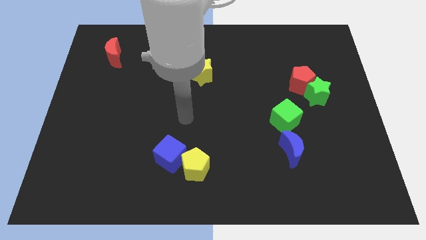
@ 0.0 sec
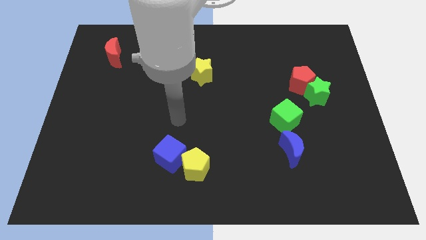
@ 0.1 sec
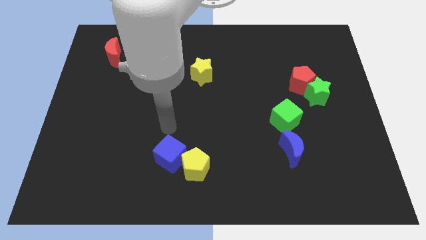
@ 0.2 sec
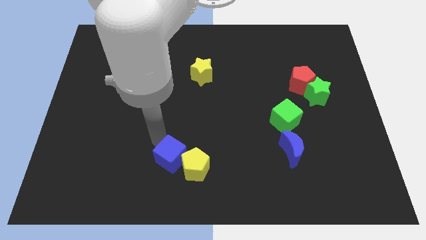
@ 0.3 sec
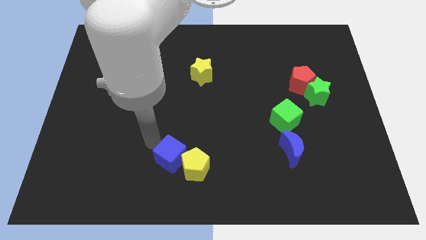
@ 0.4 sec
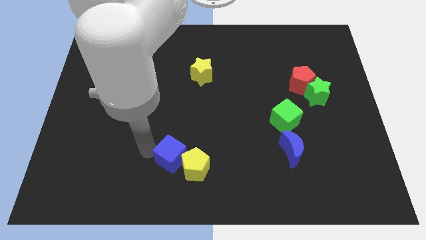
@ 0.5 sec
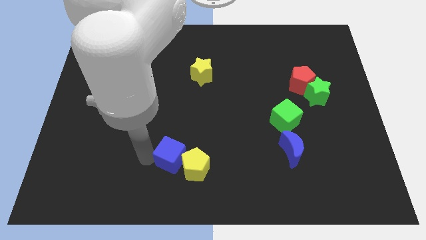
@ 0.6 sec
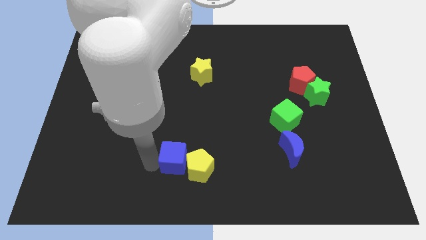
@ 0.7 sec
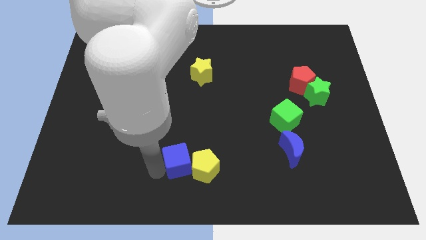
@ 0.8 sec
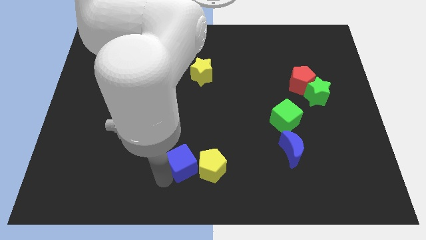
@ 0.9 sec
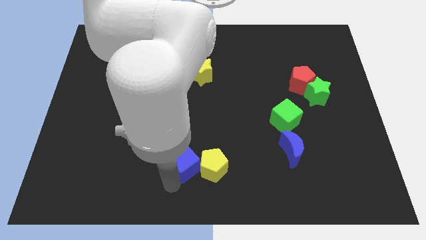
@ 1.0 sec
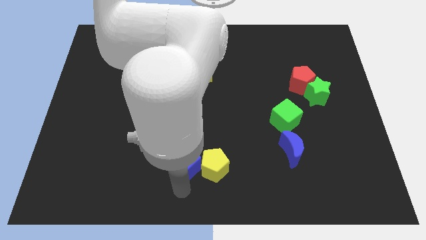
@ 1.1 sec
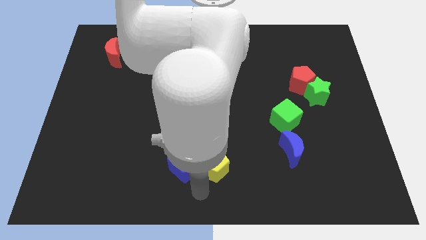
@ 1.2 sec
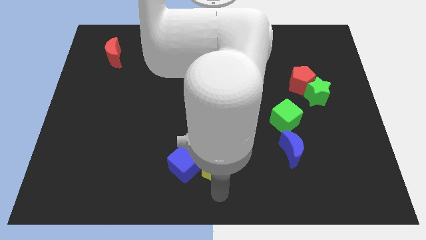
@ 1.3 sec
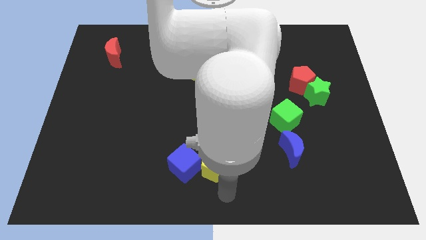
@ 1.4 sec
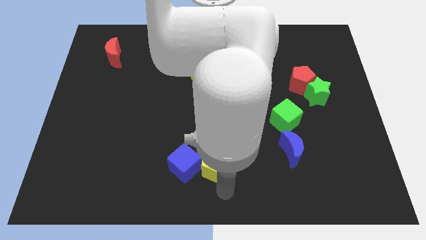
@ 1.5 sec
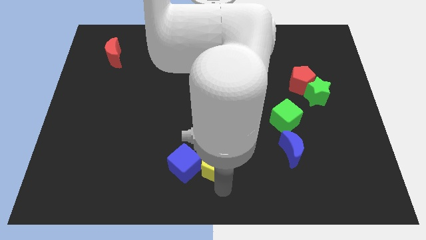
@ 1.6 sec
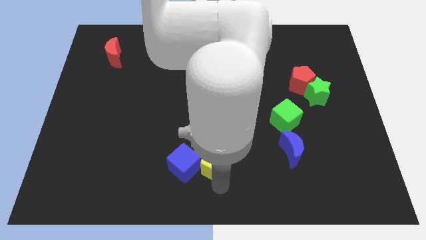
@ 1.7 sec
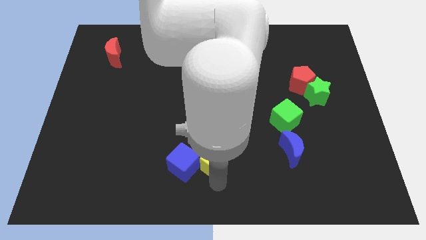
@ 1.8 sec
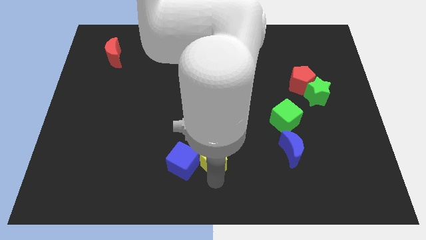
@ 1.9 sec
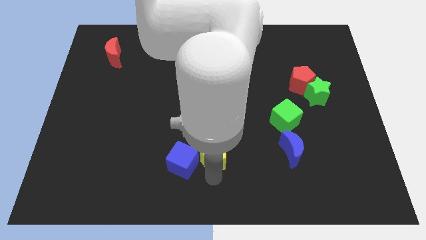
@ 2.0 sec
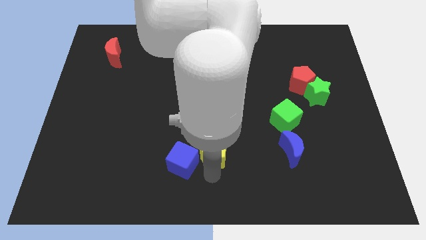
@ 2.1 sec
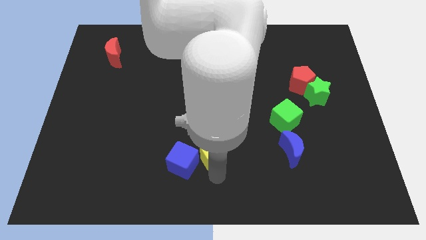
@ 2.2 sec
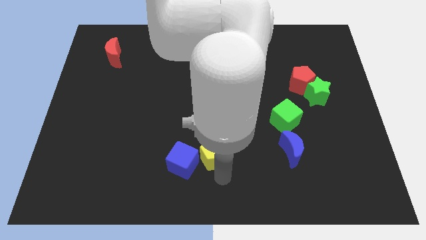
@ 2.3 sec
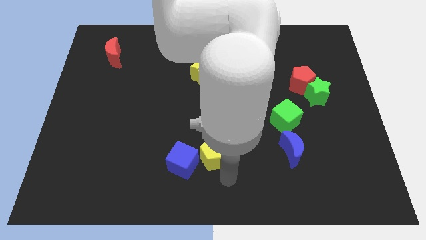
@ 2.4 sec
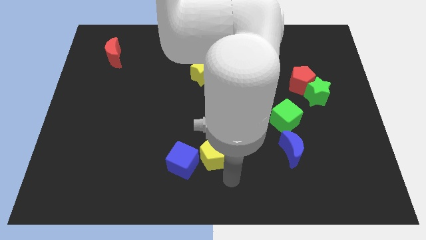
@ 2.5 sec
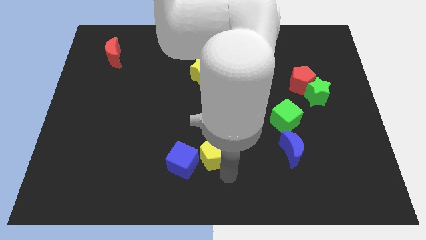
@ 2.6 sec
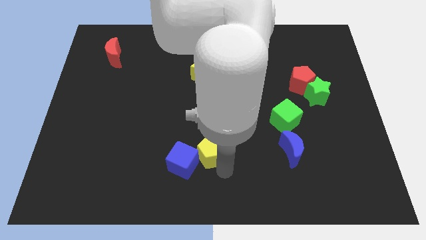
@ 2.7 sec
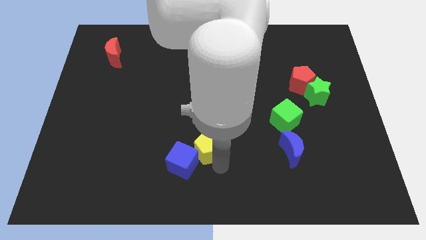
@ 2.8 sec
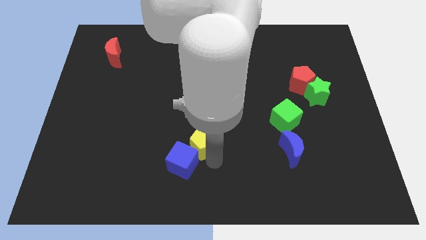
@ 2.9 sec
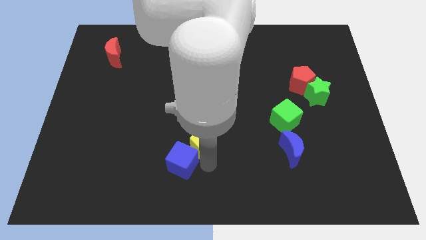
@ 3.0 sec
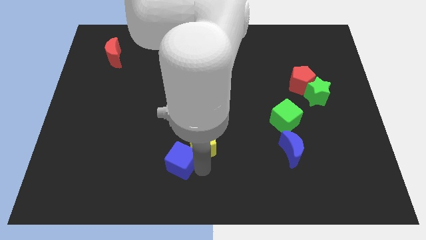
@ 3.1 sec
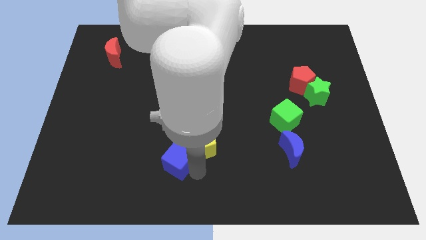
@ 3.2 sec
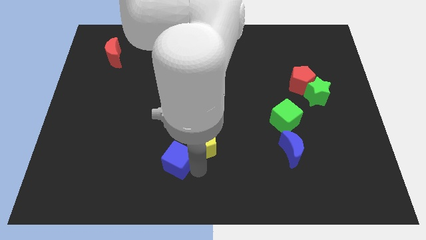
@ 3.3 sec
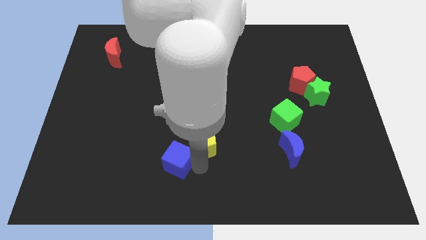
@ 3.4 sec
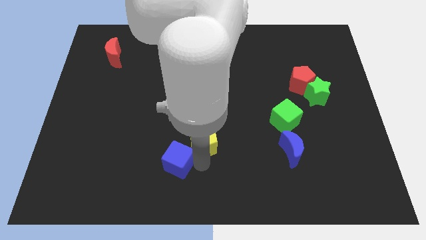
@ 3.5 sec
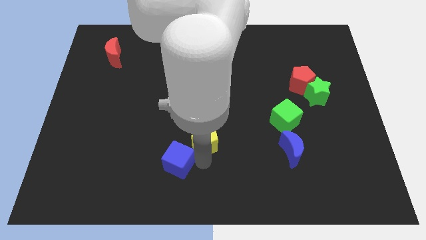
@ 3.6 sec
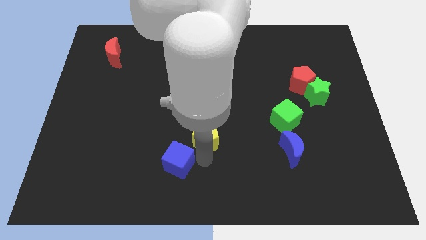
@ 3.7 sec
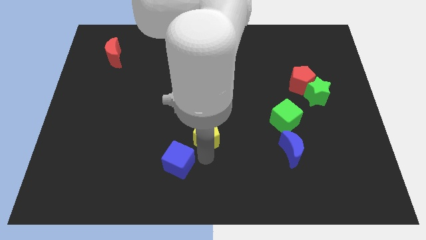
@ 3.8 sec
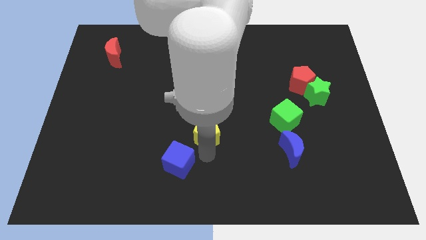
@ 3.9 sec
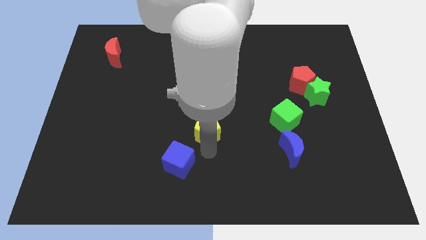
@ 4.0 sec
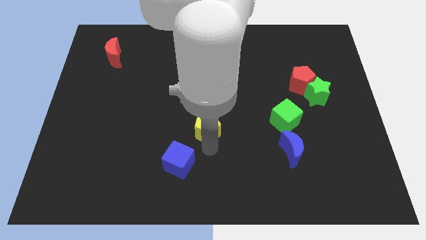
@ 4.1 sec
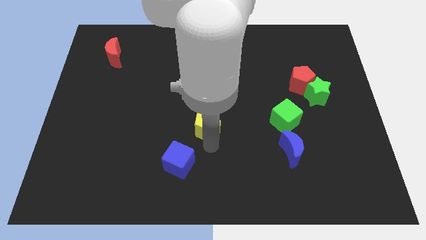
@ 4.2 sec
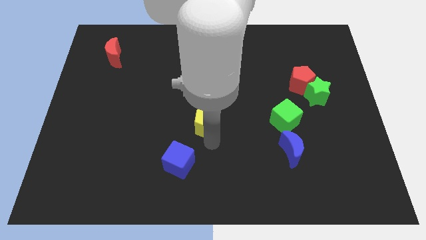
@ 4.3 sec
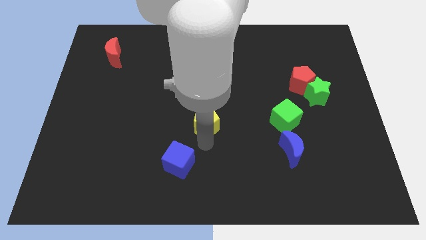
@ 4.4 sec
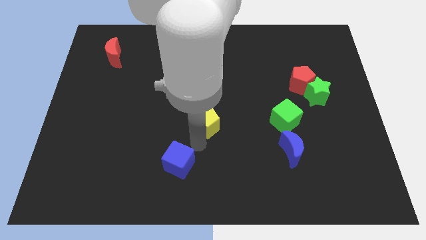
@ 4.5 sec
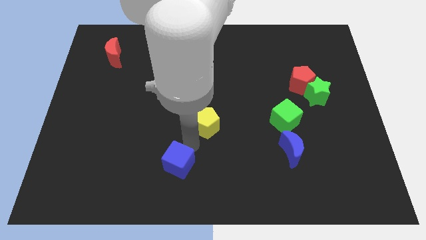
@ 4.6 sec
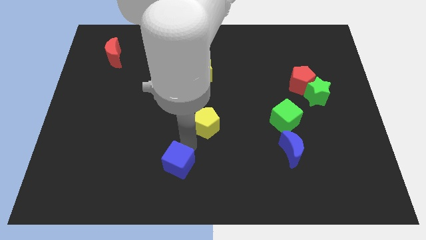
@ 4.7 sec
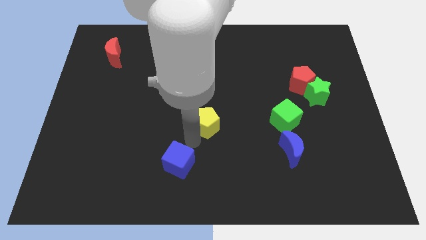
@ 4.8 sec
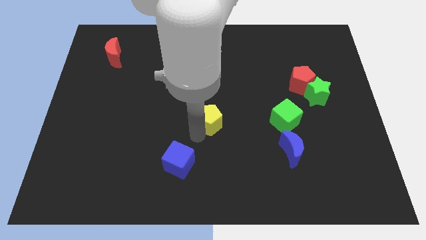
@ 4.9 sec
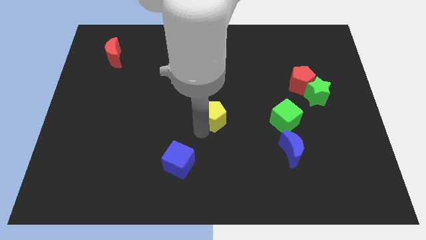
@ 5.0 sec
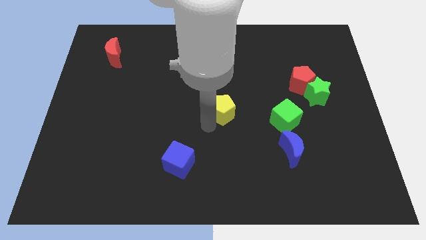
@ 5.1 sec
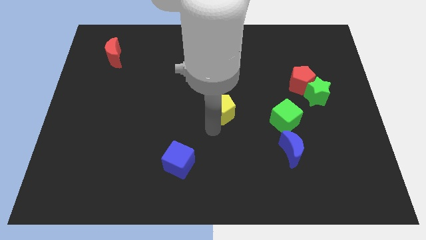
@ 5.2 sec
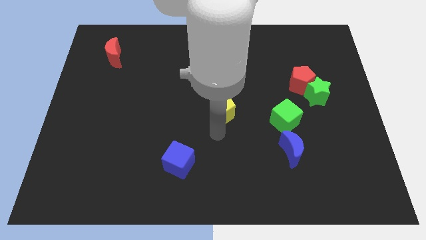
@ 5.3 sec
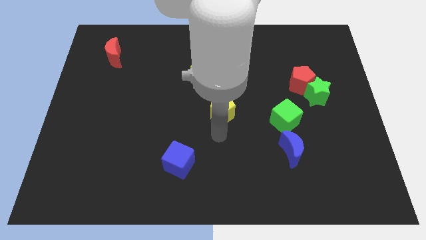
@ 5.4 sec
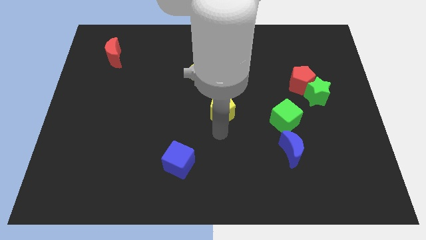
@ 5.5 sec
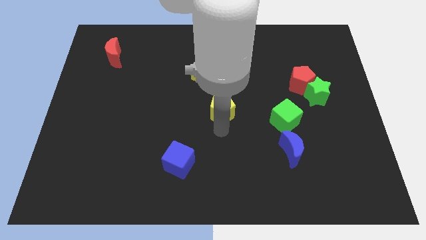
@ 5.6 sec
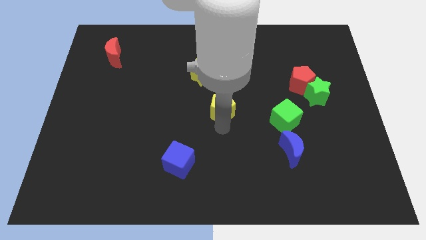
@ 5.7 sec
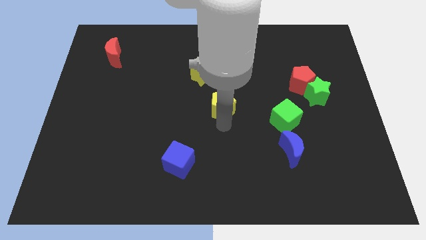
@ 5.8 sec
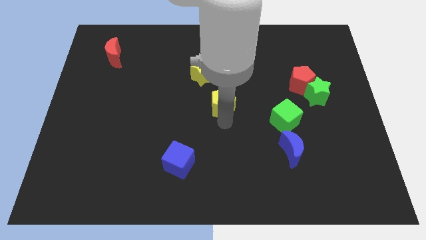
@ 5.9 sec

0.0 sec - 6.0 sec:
slide the yellow pentagon to the bottom right side of the yellow star

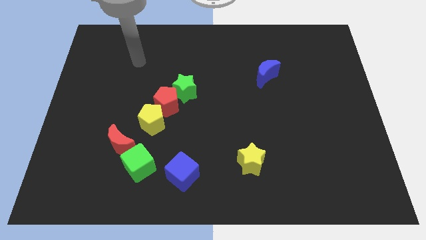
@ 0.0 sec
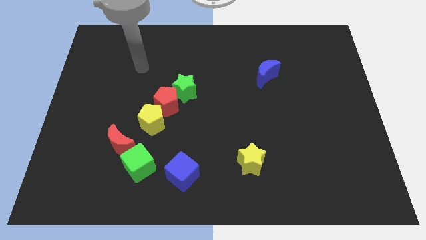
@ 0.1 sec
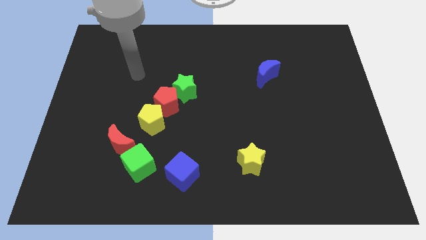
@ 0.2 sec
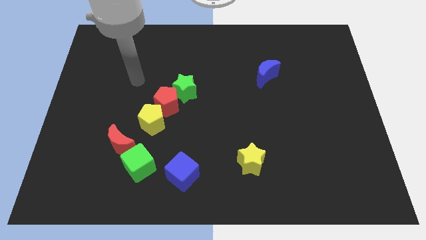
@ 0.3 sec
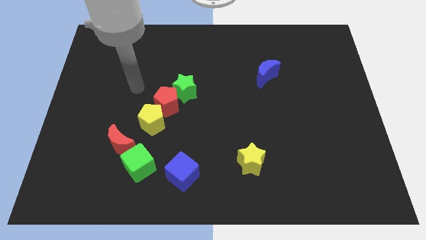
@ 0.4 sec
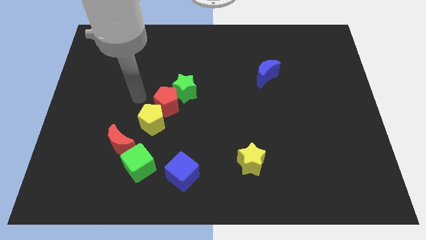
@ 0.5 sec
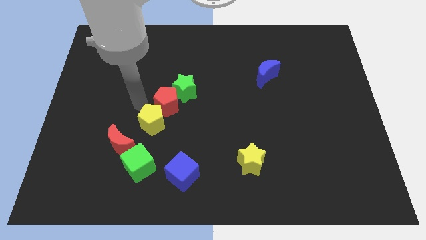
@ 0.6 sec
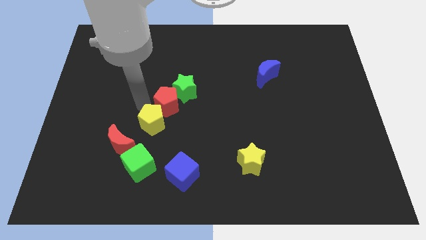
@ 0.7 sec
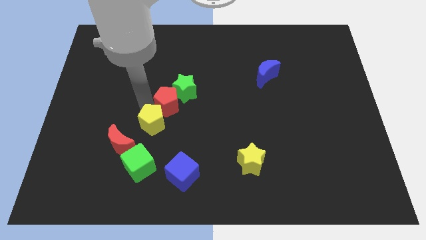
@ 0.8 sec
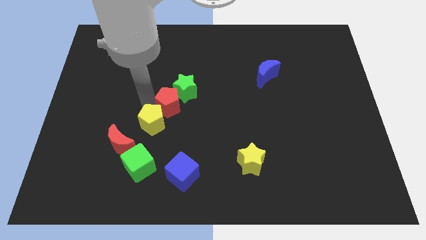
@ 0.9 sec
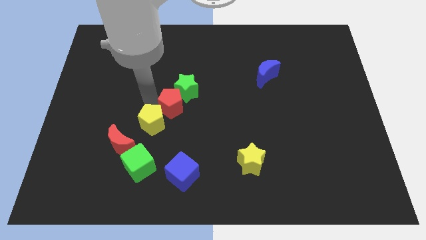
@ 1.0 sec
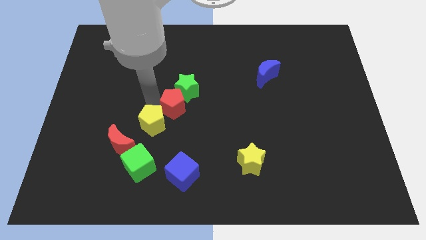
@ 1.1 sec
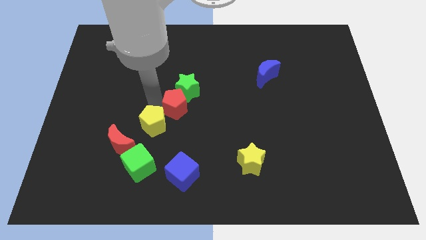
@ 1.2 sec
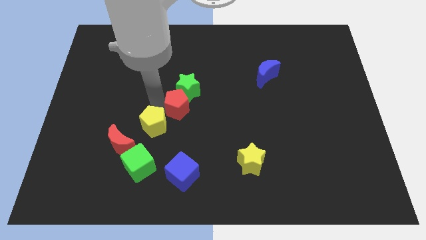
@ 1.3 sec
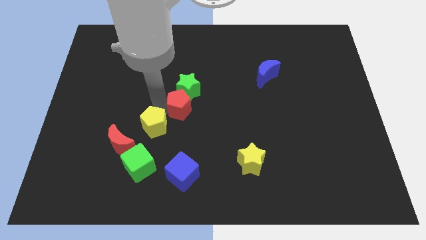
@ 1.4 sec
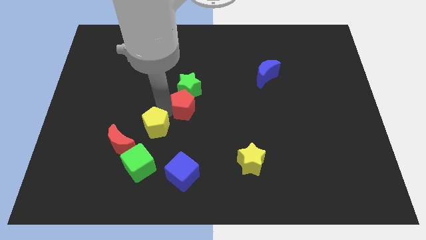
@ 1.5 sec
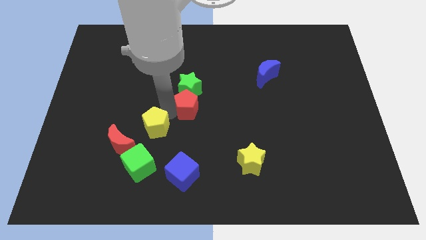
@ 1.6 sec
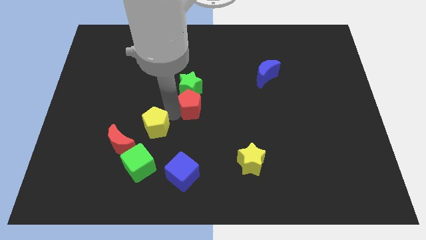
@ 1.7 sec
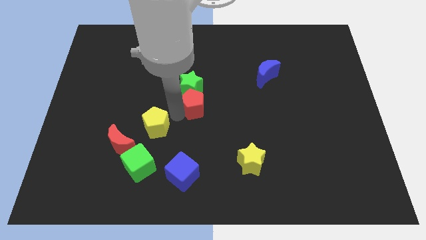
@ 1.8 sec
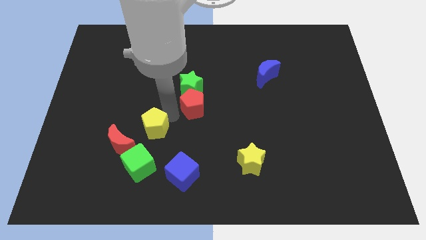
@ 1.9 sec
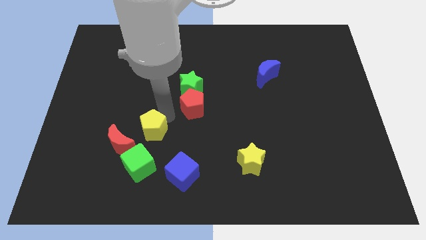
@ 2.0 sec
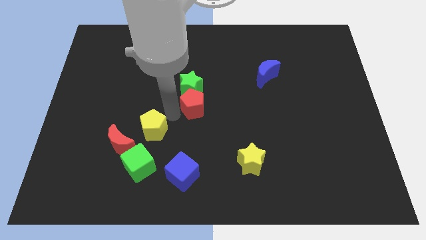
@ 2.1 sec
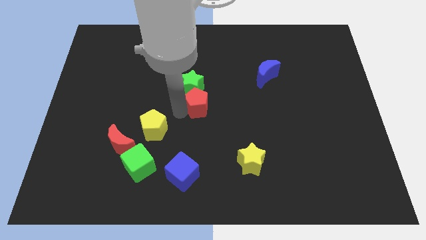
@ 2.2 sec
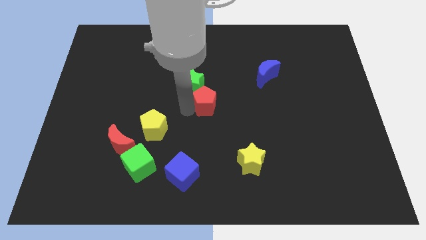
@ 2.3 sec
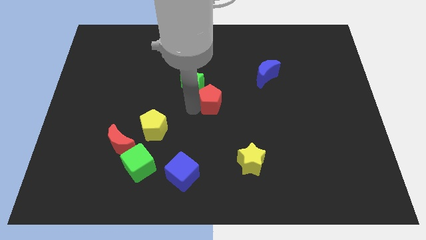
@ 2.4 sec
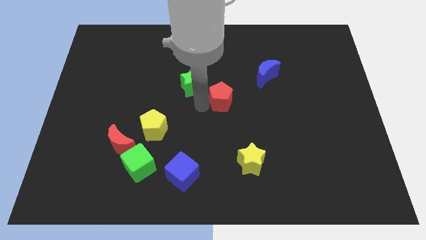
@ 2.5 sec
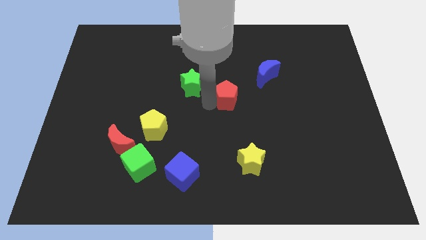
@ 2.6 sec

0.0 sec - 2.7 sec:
push the red pentagon to the bottom left of the blue moon
